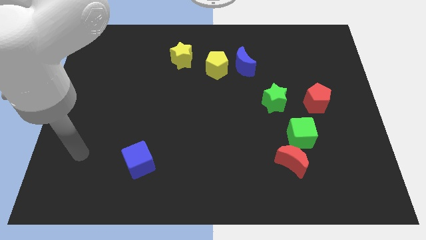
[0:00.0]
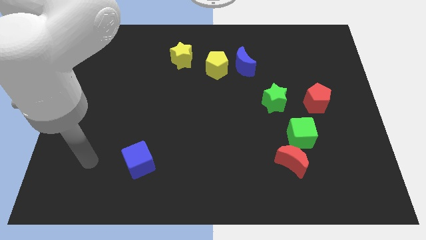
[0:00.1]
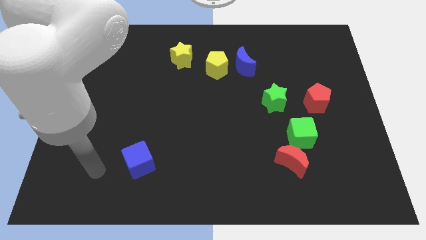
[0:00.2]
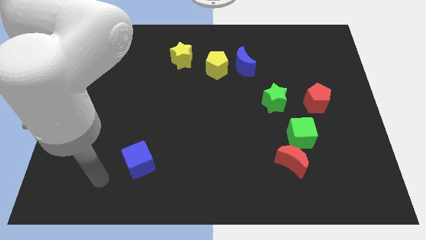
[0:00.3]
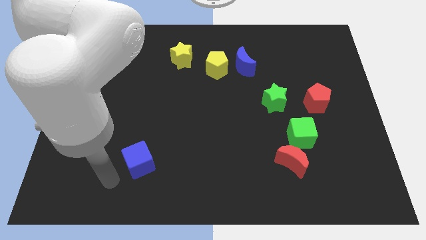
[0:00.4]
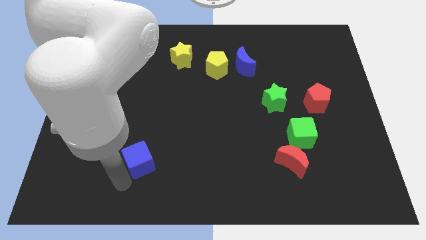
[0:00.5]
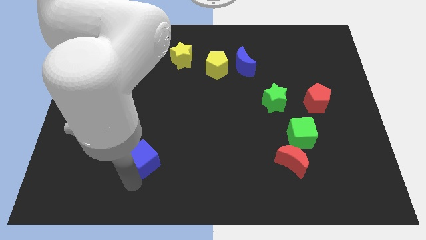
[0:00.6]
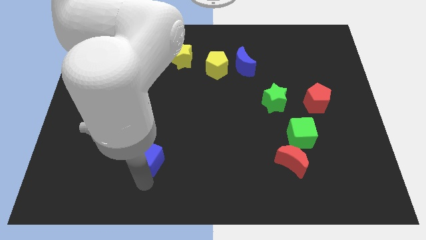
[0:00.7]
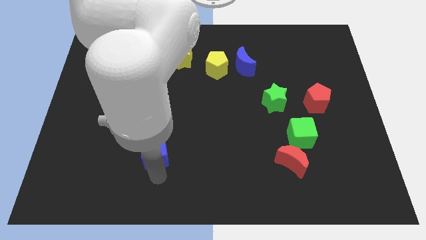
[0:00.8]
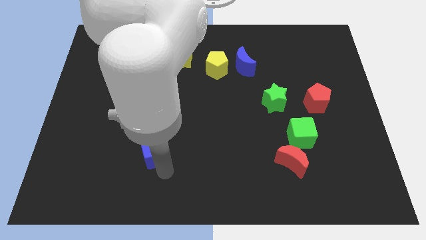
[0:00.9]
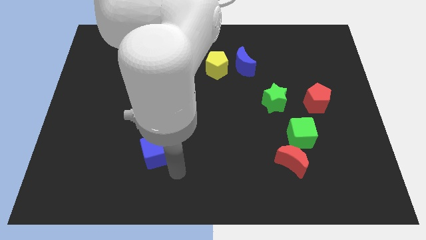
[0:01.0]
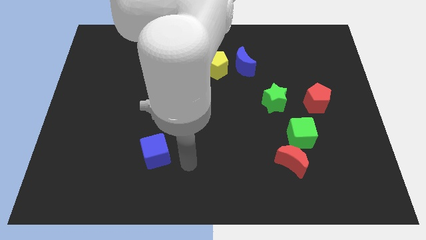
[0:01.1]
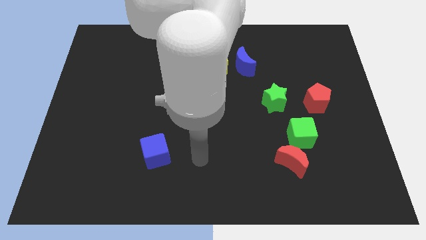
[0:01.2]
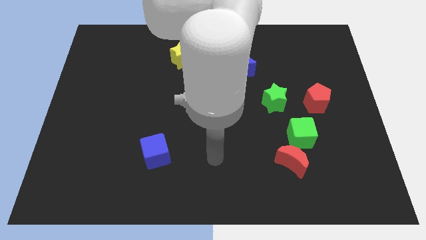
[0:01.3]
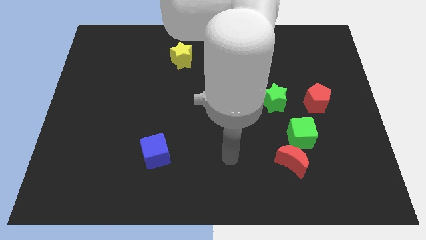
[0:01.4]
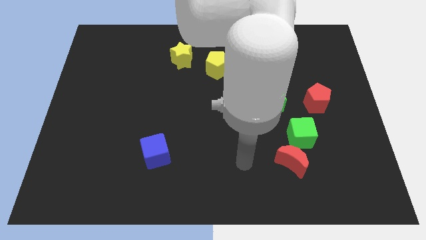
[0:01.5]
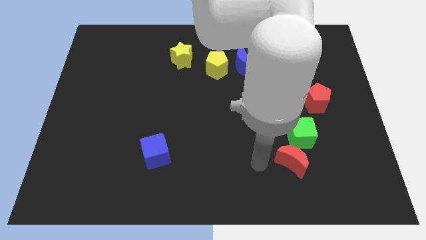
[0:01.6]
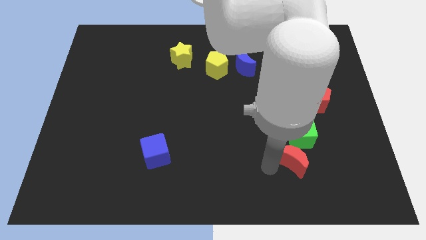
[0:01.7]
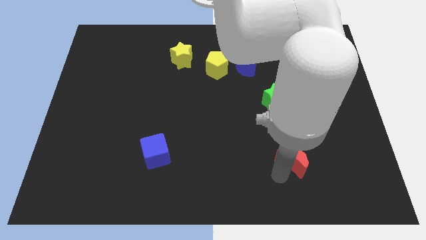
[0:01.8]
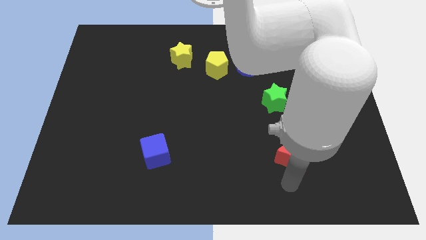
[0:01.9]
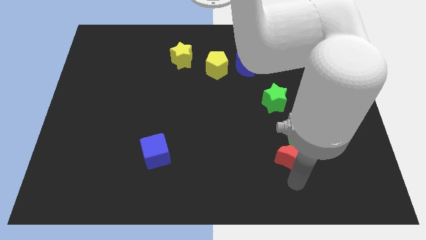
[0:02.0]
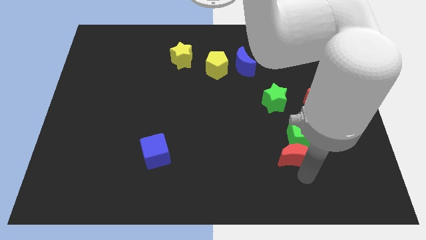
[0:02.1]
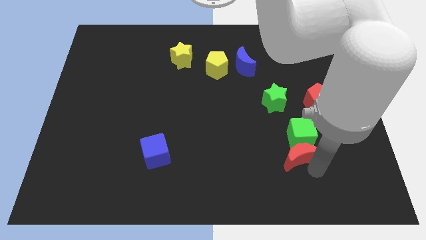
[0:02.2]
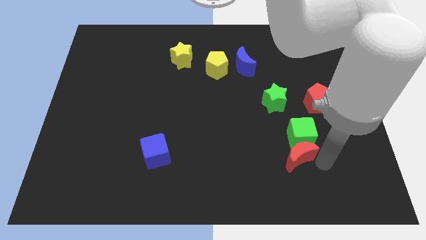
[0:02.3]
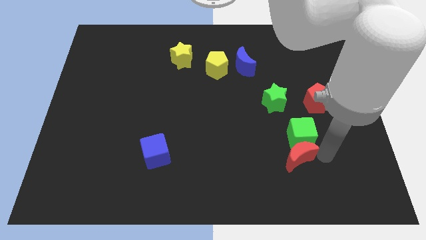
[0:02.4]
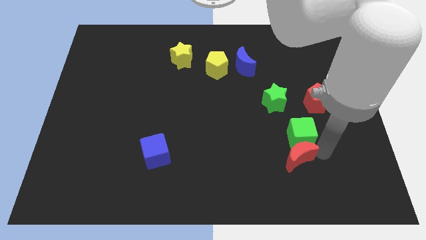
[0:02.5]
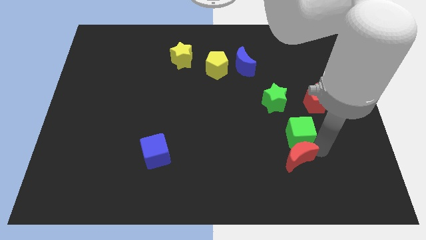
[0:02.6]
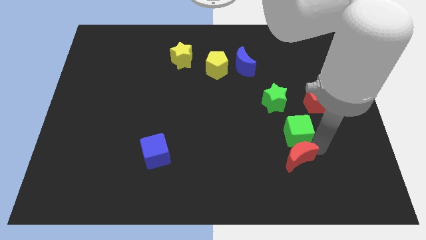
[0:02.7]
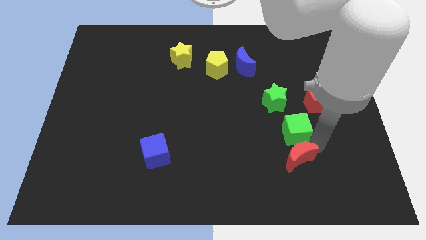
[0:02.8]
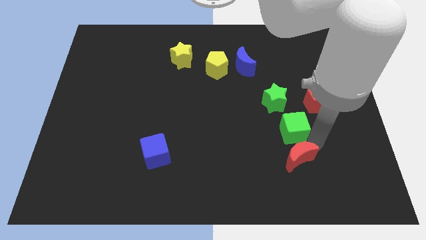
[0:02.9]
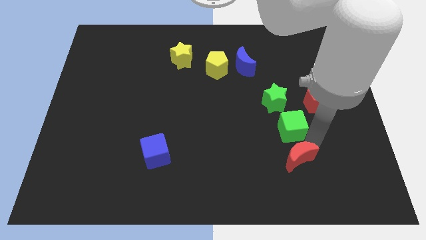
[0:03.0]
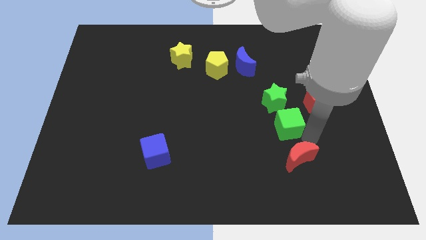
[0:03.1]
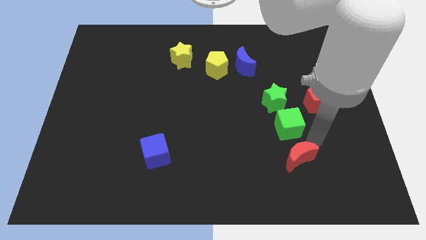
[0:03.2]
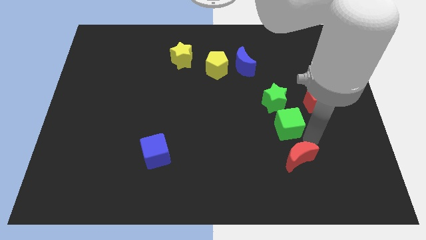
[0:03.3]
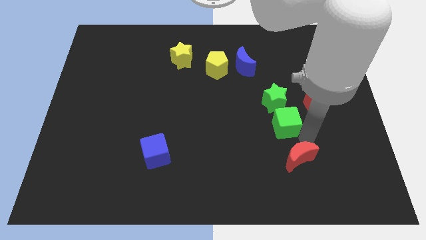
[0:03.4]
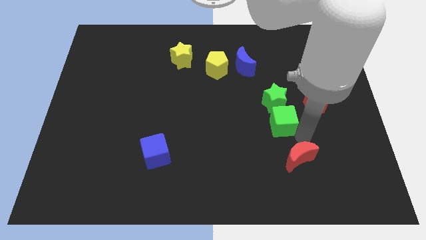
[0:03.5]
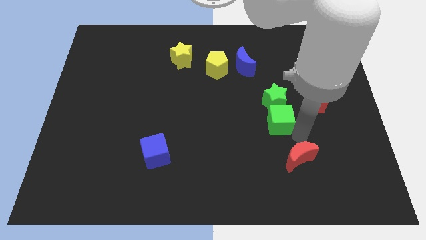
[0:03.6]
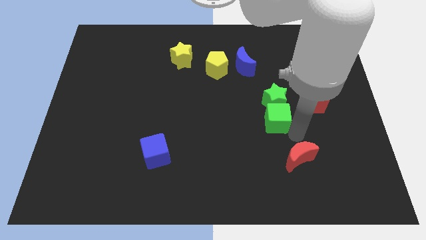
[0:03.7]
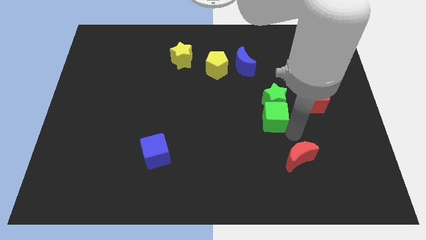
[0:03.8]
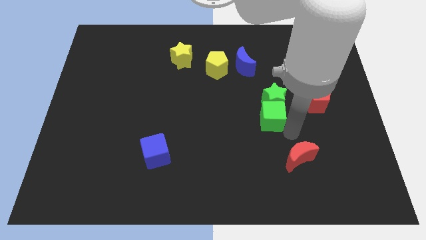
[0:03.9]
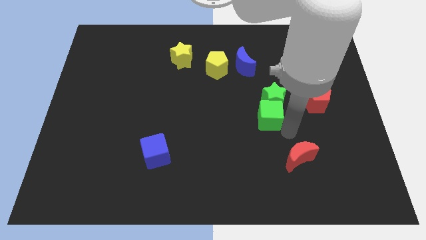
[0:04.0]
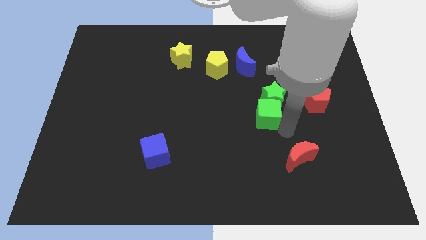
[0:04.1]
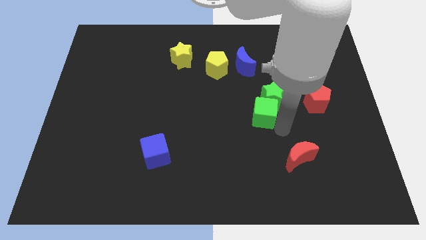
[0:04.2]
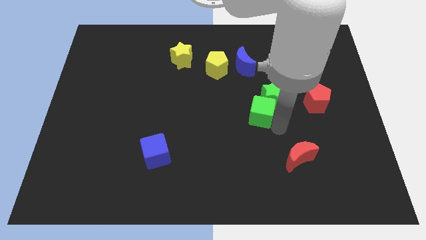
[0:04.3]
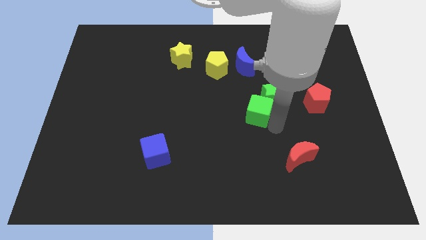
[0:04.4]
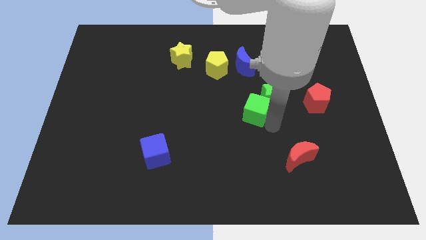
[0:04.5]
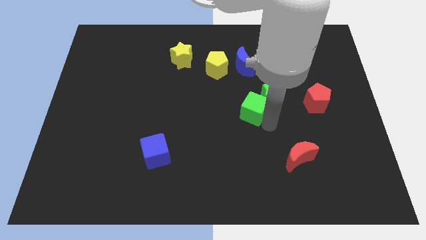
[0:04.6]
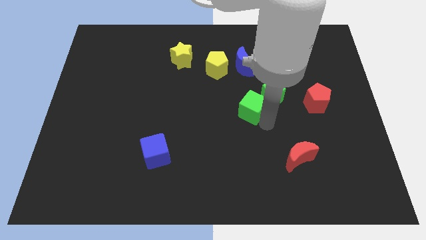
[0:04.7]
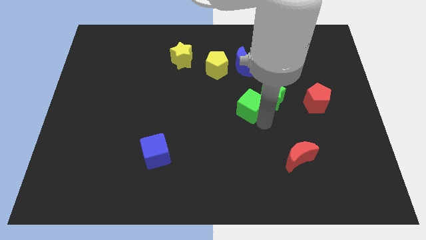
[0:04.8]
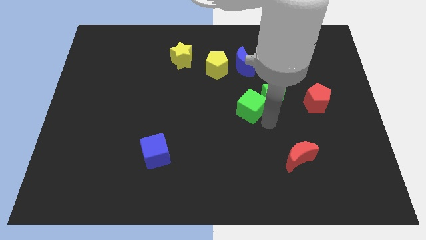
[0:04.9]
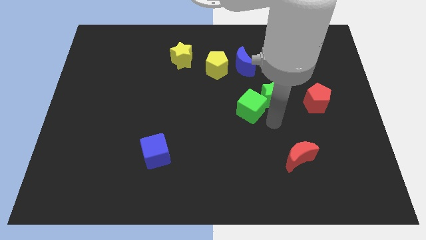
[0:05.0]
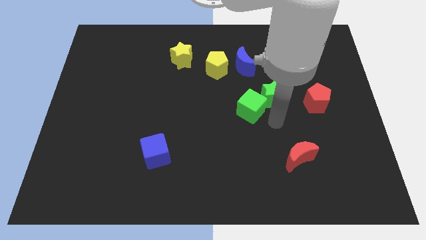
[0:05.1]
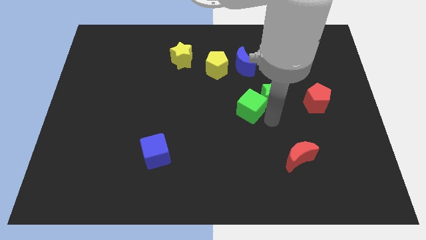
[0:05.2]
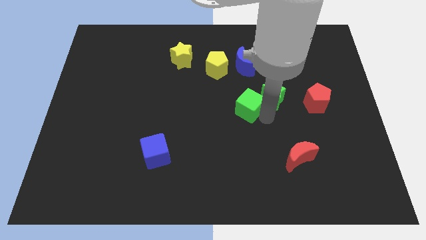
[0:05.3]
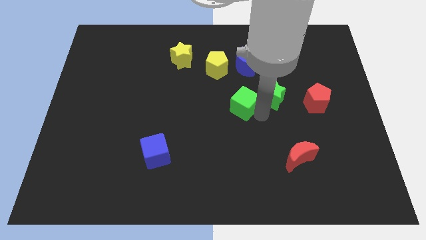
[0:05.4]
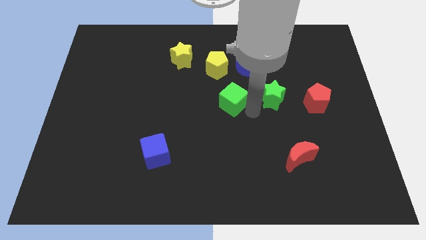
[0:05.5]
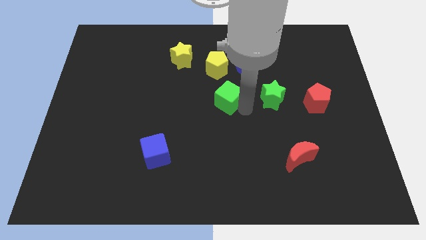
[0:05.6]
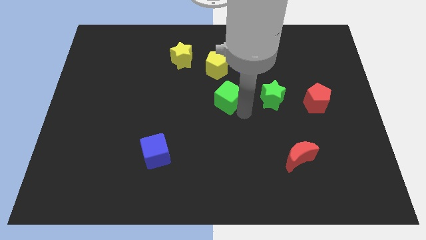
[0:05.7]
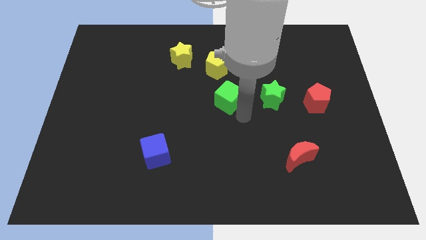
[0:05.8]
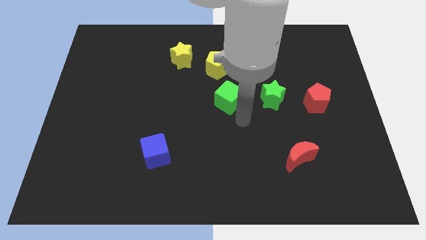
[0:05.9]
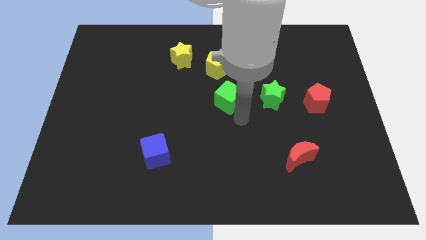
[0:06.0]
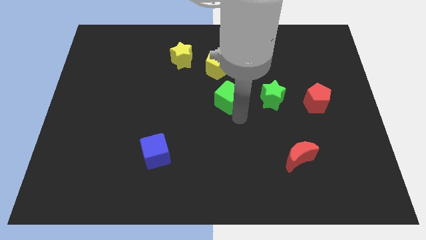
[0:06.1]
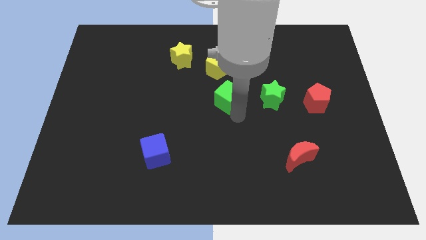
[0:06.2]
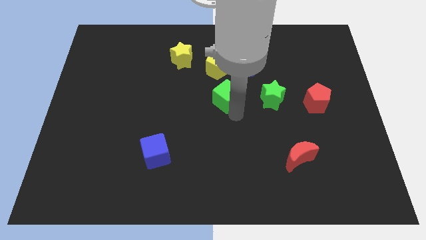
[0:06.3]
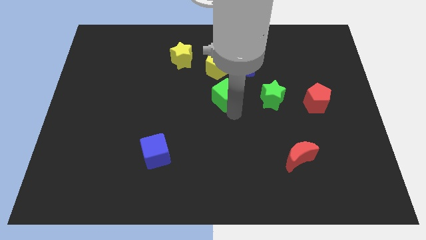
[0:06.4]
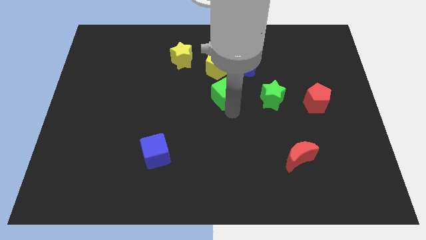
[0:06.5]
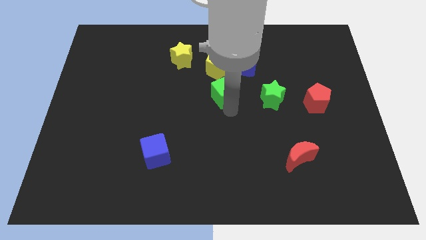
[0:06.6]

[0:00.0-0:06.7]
slide the green cube up and then left

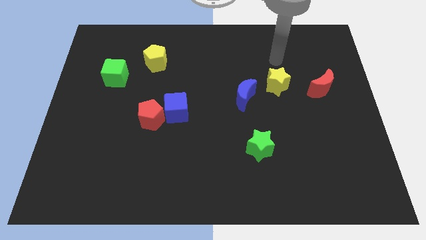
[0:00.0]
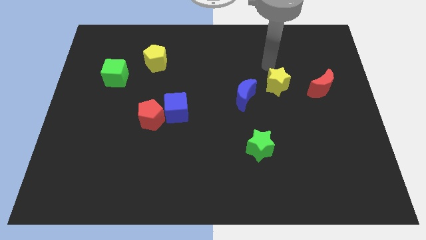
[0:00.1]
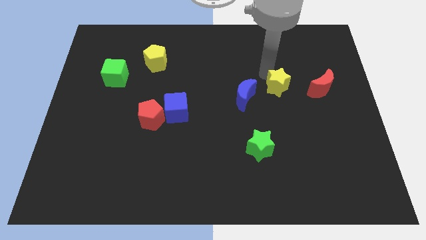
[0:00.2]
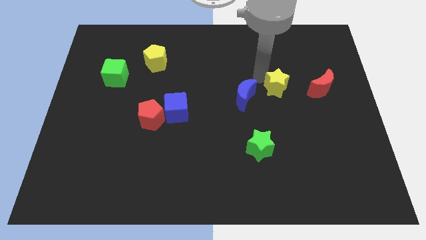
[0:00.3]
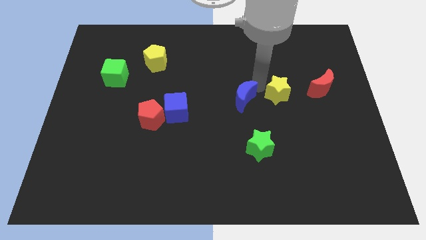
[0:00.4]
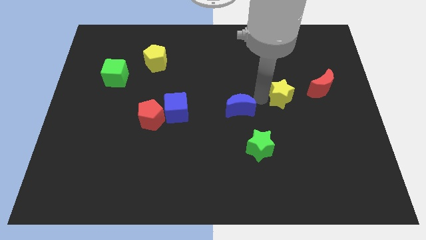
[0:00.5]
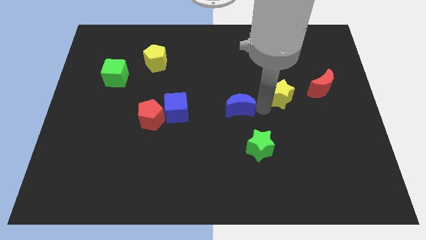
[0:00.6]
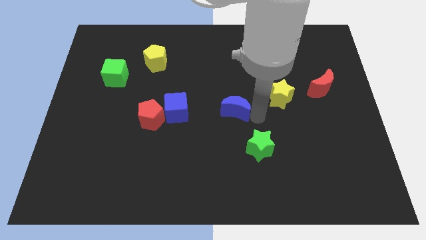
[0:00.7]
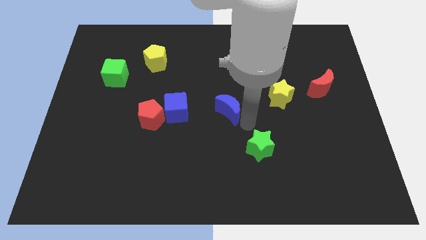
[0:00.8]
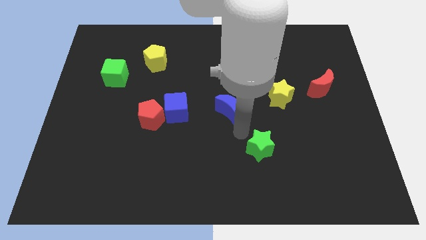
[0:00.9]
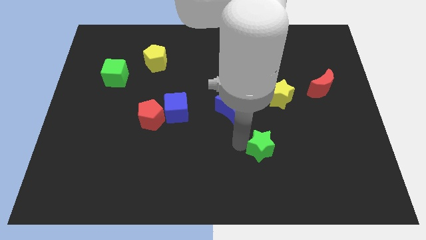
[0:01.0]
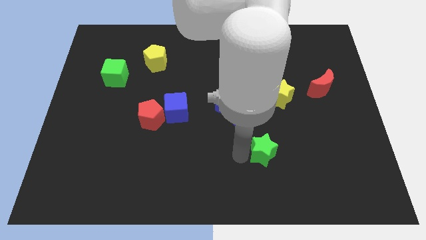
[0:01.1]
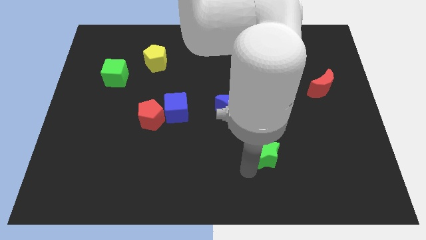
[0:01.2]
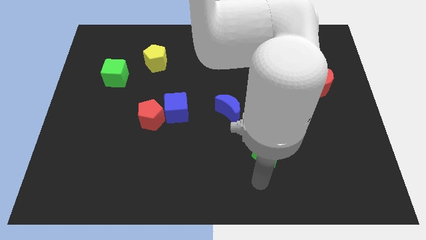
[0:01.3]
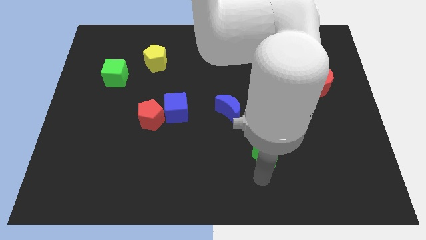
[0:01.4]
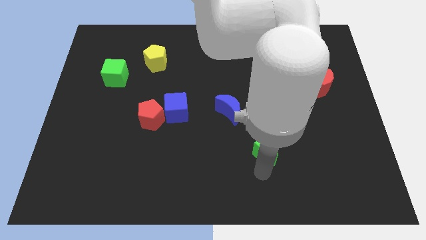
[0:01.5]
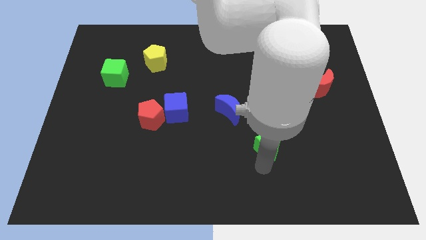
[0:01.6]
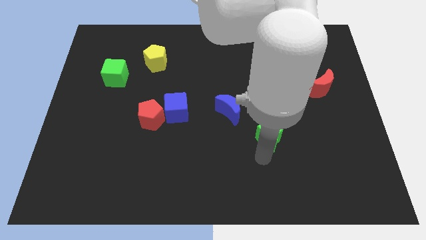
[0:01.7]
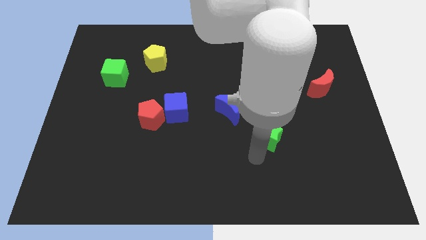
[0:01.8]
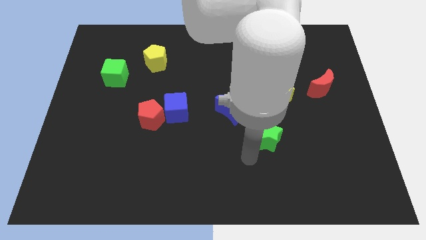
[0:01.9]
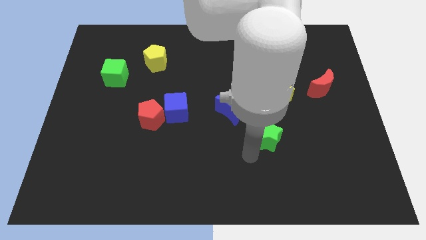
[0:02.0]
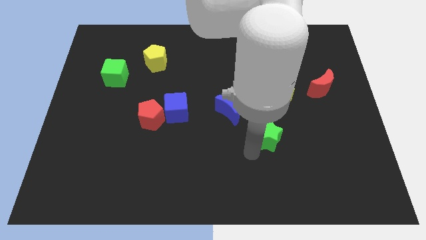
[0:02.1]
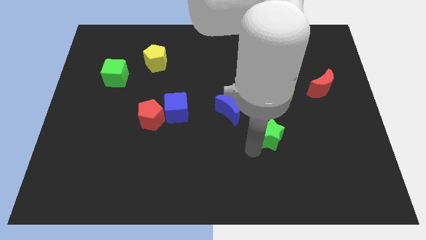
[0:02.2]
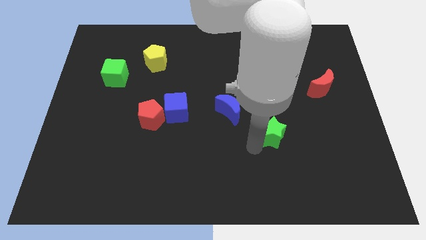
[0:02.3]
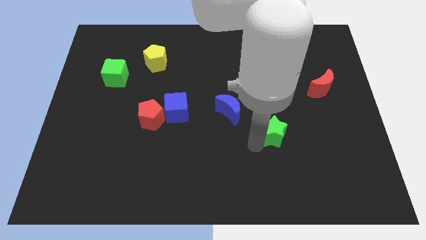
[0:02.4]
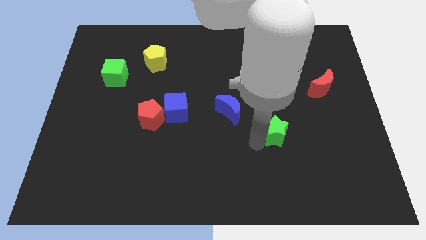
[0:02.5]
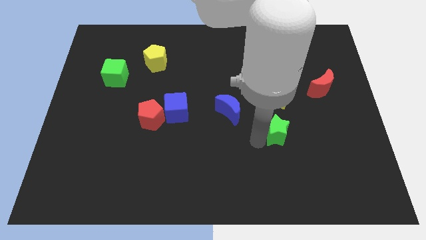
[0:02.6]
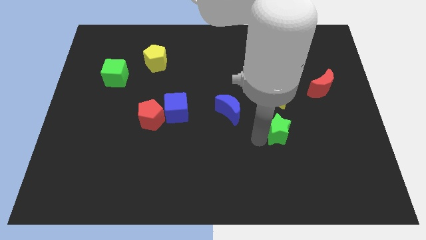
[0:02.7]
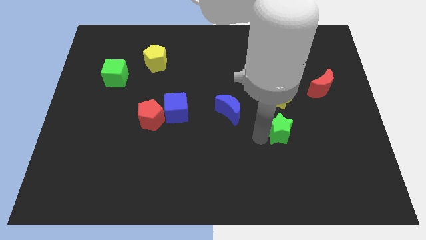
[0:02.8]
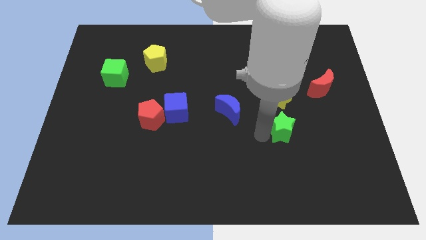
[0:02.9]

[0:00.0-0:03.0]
push the green star a bit diagonally upwards and to the right
